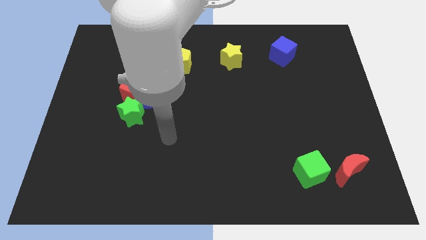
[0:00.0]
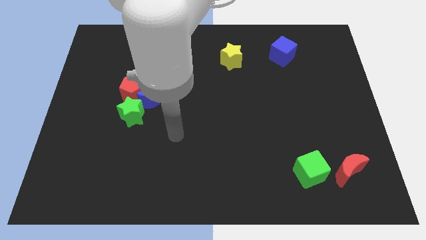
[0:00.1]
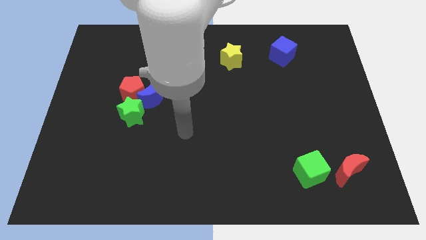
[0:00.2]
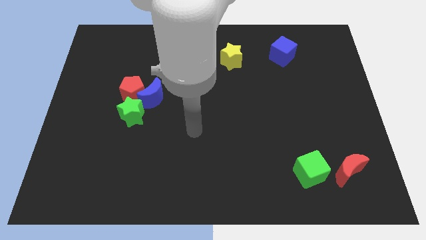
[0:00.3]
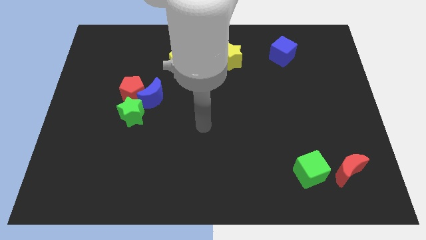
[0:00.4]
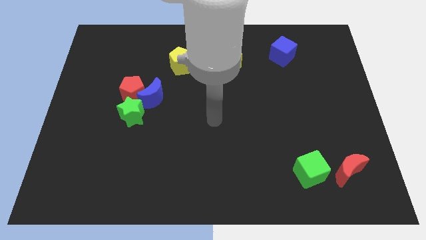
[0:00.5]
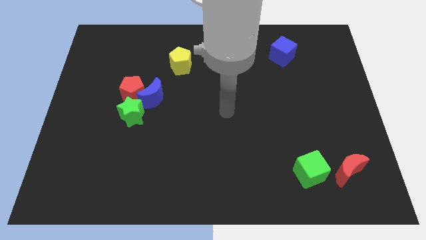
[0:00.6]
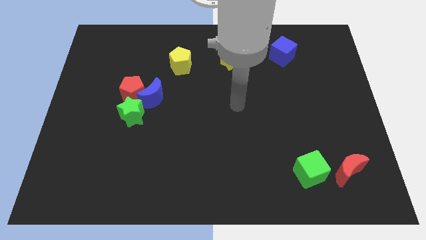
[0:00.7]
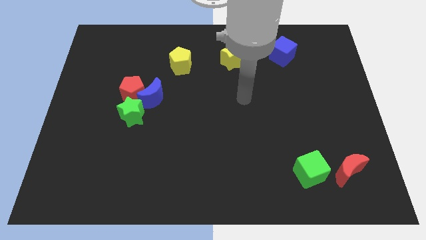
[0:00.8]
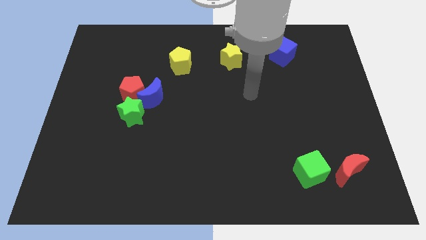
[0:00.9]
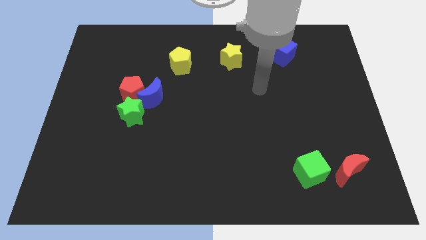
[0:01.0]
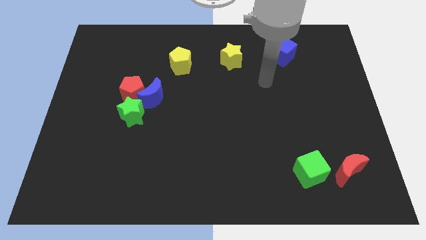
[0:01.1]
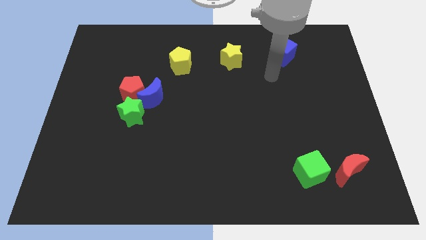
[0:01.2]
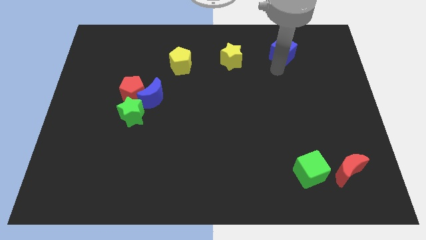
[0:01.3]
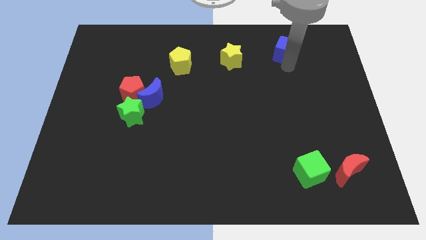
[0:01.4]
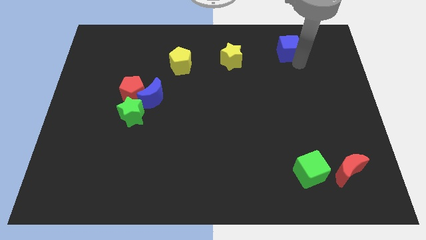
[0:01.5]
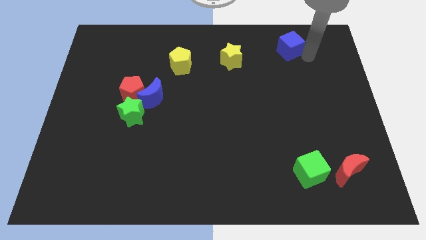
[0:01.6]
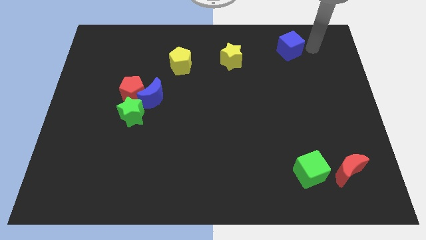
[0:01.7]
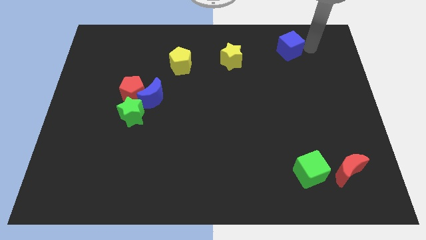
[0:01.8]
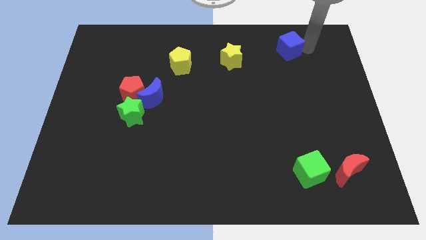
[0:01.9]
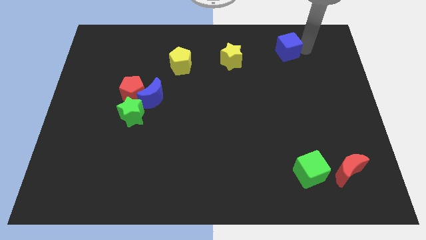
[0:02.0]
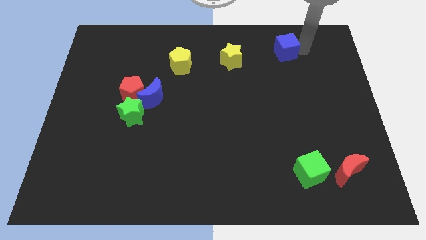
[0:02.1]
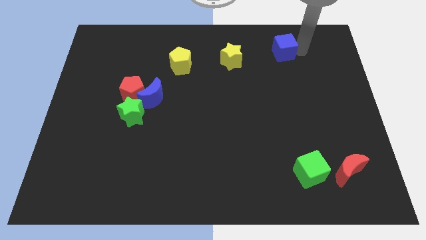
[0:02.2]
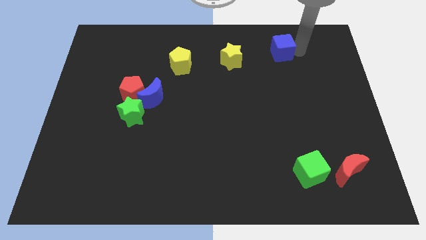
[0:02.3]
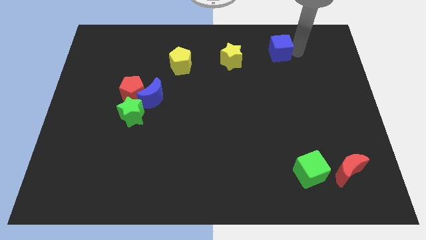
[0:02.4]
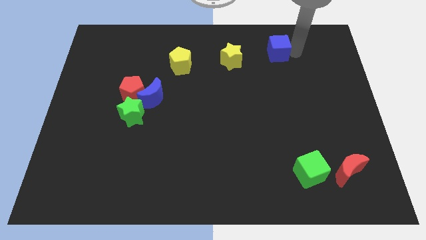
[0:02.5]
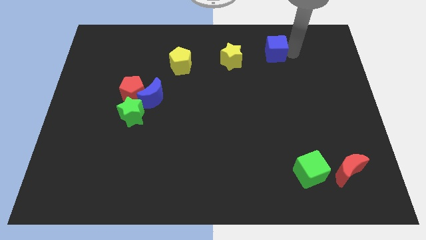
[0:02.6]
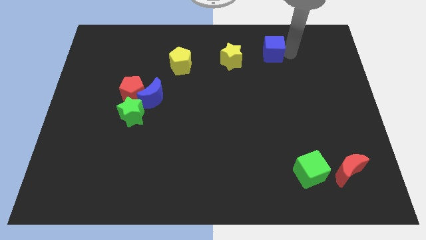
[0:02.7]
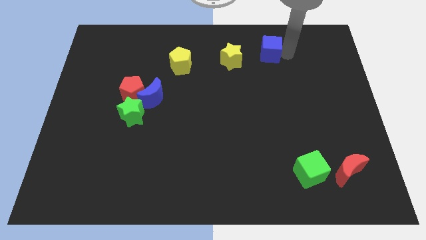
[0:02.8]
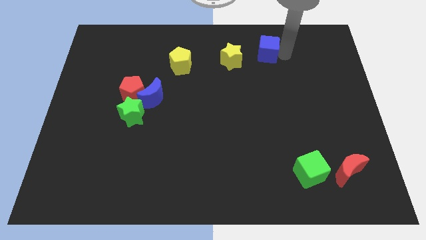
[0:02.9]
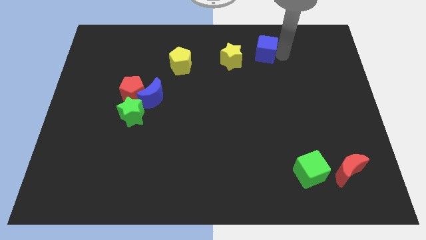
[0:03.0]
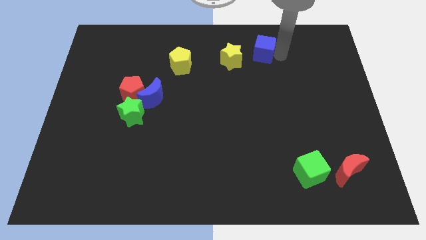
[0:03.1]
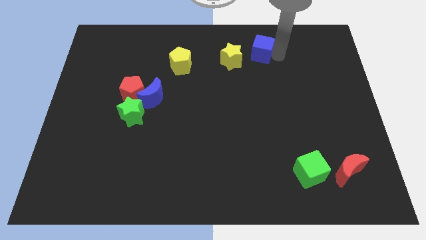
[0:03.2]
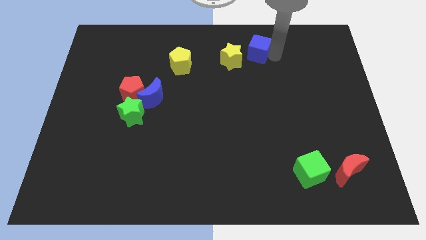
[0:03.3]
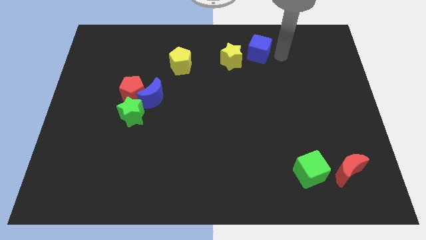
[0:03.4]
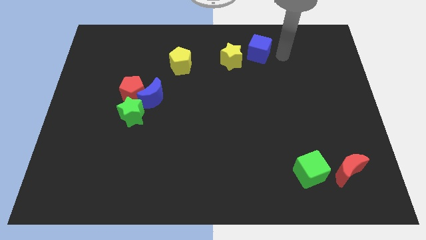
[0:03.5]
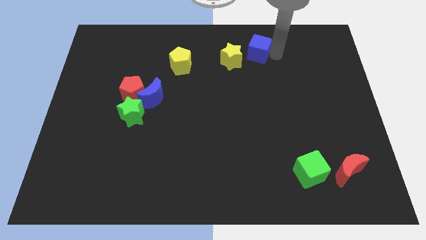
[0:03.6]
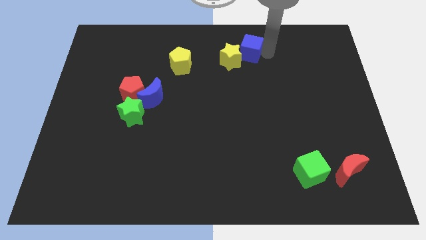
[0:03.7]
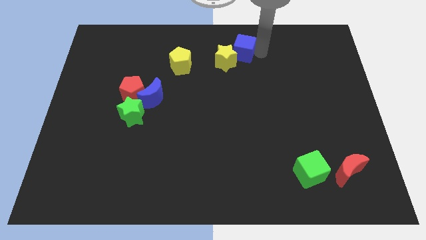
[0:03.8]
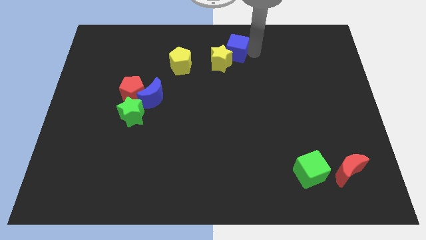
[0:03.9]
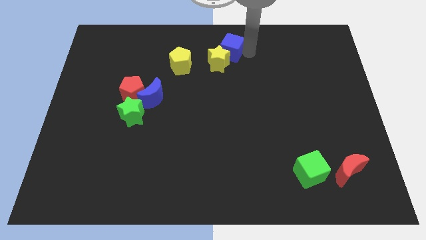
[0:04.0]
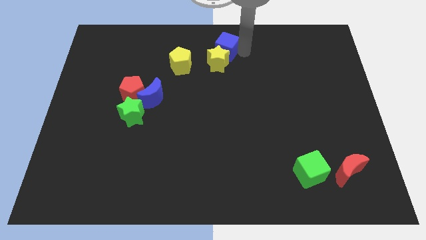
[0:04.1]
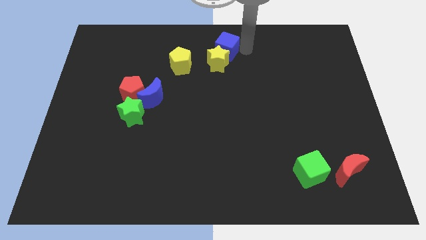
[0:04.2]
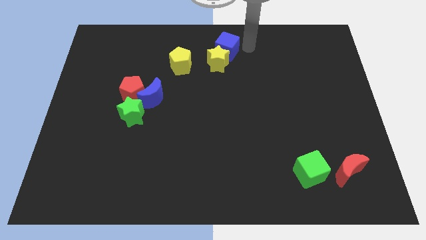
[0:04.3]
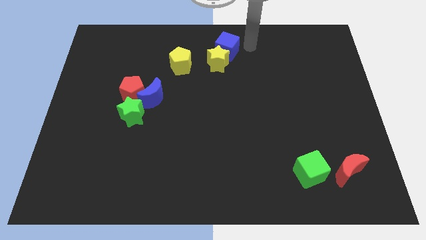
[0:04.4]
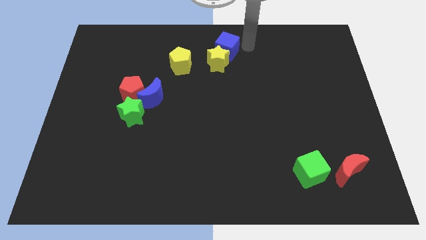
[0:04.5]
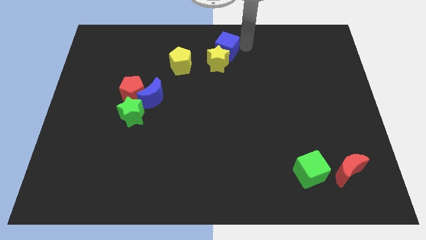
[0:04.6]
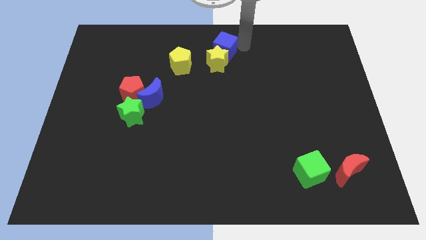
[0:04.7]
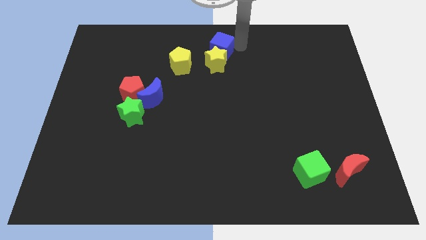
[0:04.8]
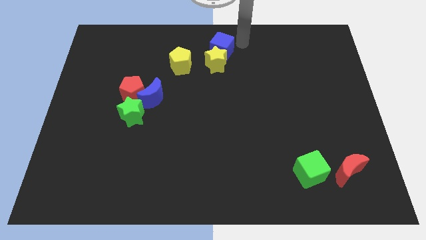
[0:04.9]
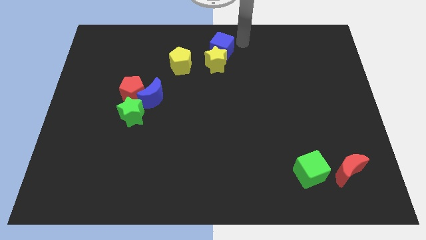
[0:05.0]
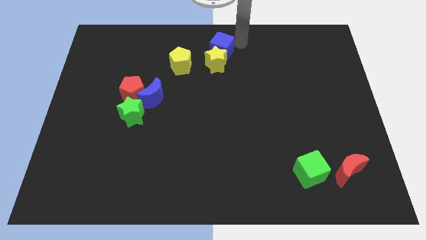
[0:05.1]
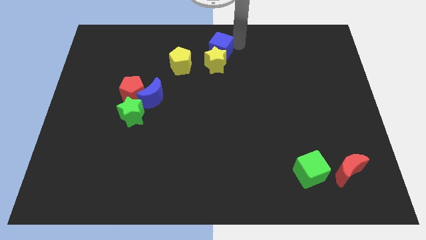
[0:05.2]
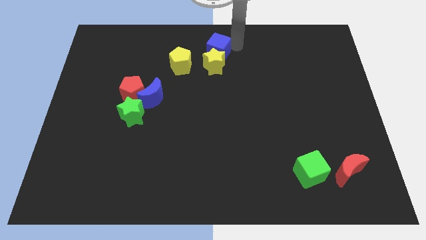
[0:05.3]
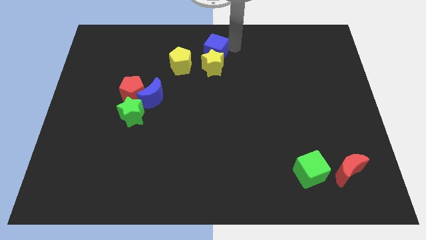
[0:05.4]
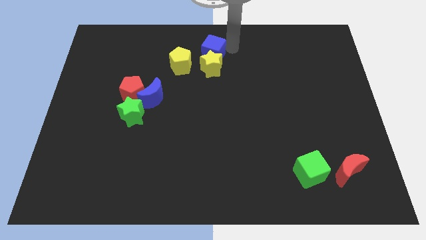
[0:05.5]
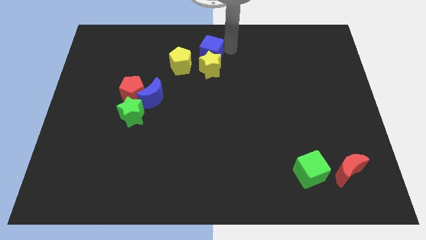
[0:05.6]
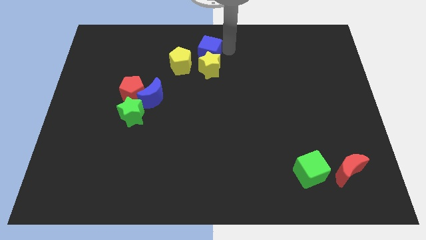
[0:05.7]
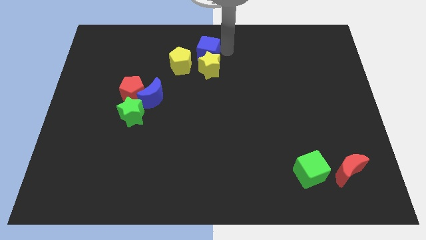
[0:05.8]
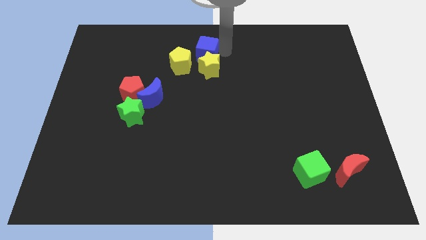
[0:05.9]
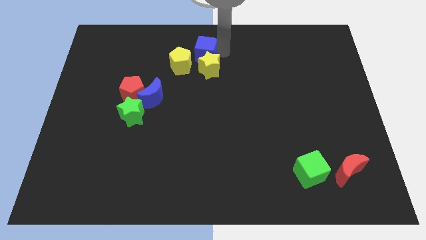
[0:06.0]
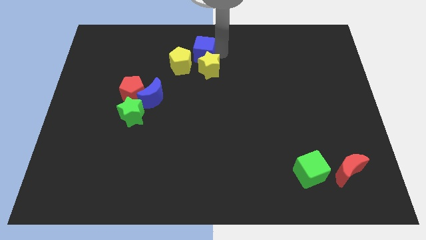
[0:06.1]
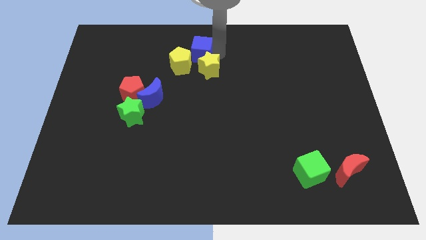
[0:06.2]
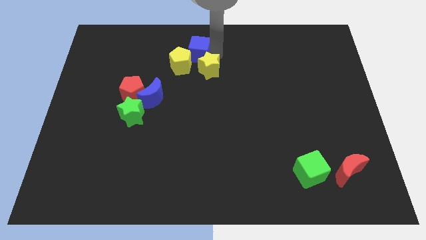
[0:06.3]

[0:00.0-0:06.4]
slide the blue cube close to the yellow pentagon

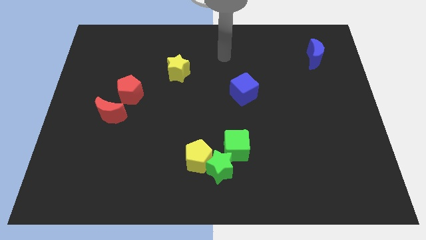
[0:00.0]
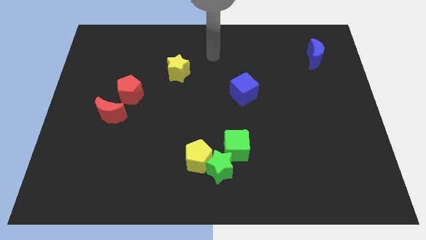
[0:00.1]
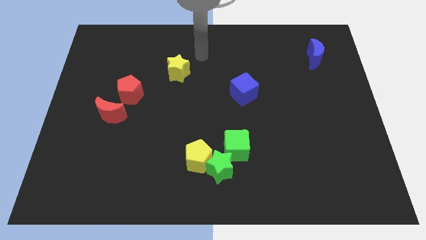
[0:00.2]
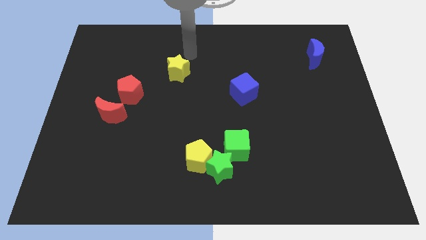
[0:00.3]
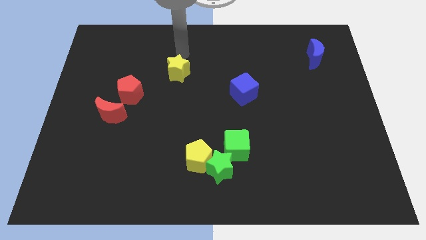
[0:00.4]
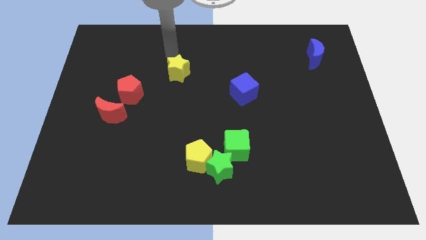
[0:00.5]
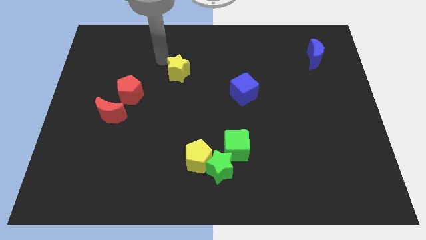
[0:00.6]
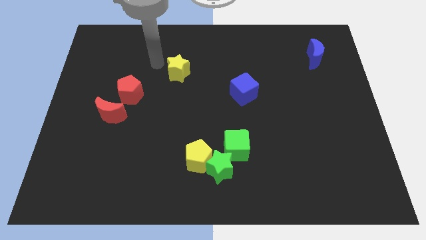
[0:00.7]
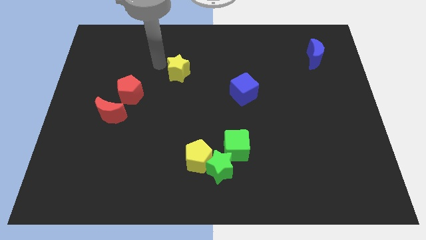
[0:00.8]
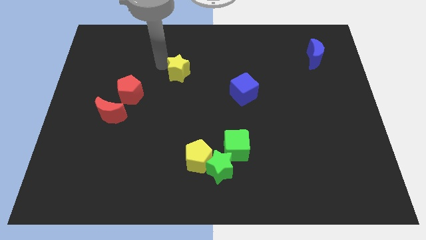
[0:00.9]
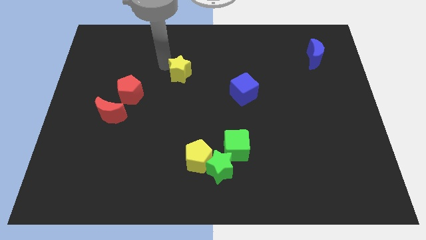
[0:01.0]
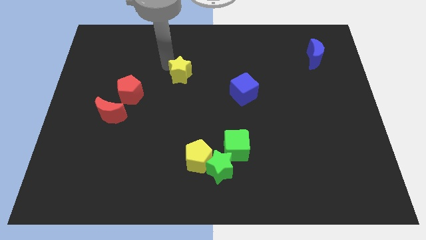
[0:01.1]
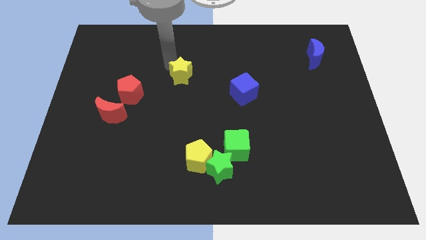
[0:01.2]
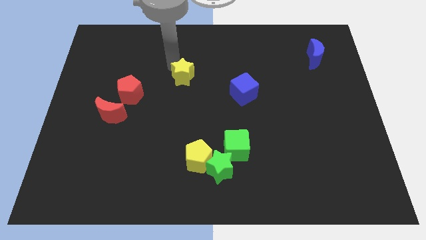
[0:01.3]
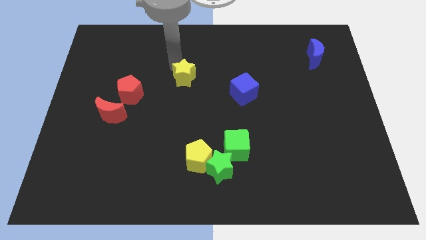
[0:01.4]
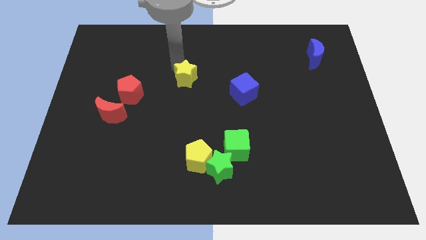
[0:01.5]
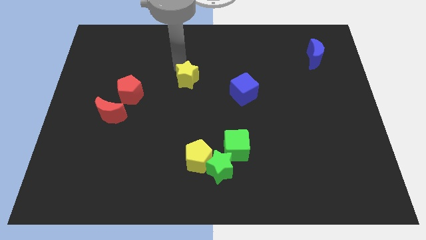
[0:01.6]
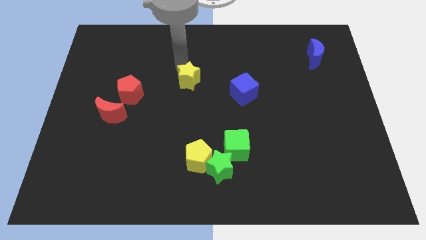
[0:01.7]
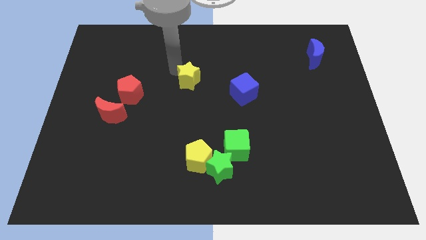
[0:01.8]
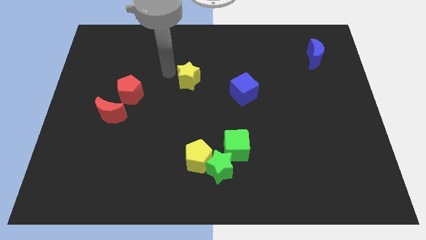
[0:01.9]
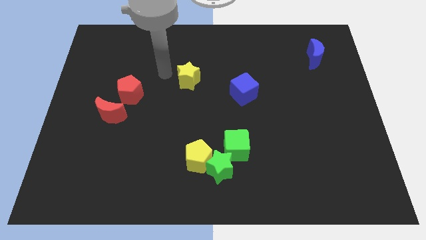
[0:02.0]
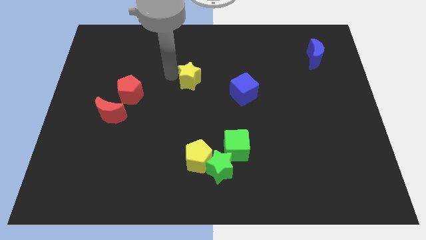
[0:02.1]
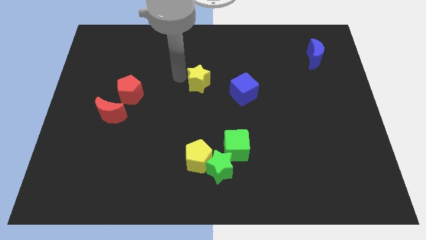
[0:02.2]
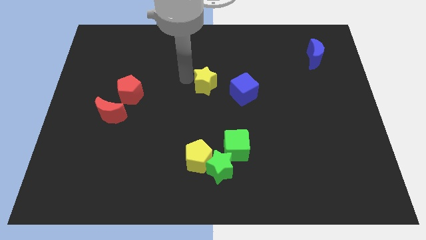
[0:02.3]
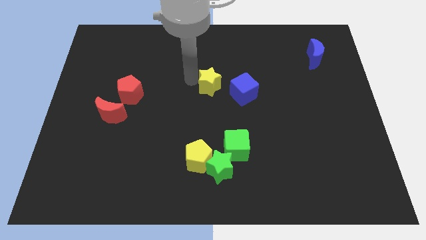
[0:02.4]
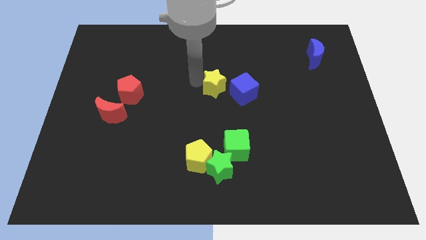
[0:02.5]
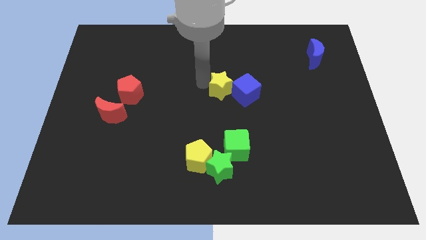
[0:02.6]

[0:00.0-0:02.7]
move the yellow star towards the blue cube
